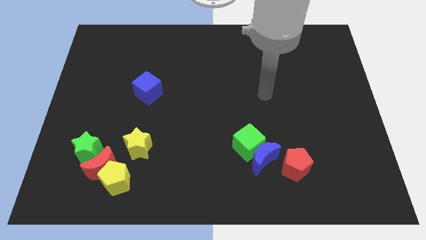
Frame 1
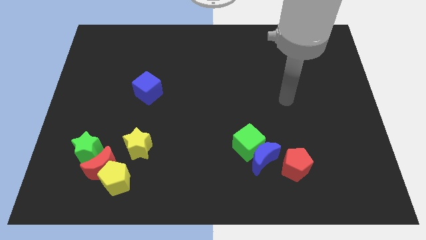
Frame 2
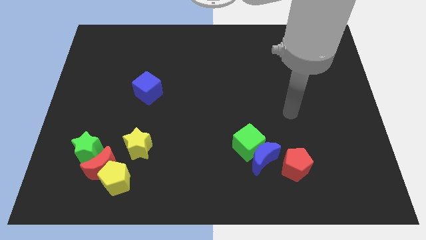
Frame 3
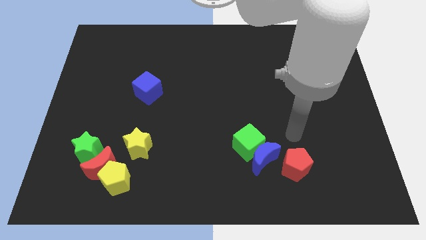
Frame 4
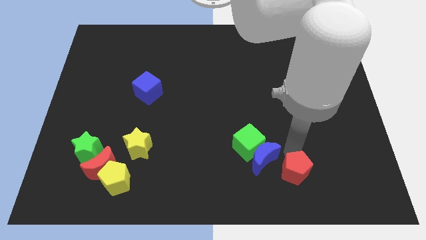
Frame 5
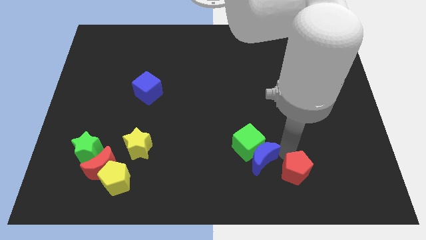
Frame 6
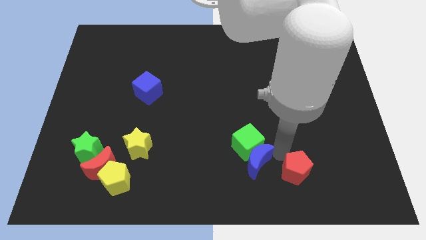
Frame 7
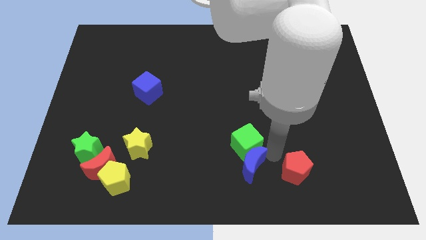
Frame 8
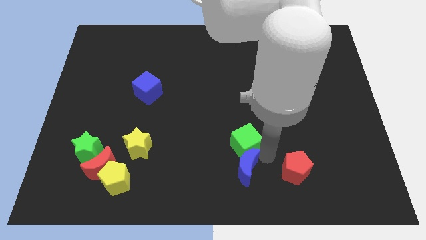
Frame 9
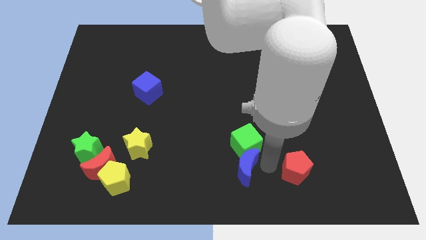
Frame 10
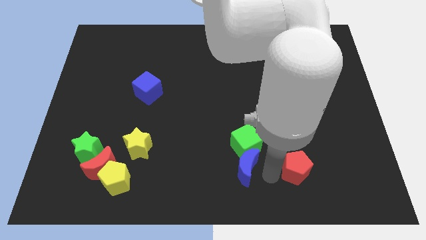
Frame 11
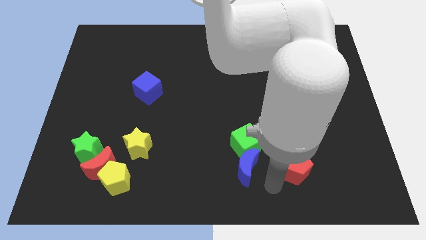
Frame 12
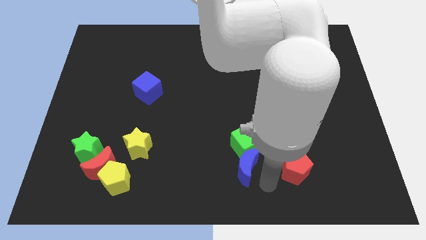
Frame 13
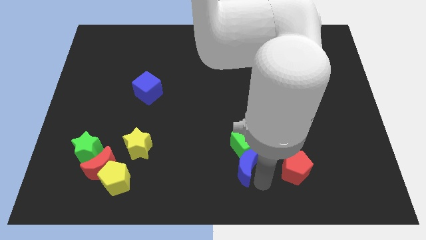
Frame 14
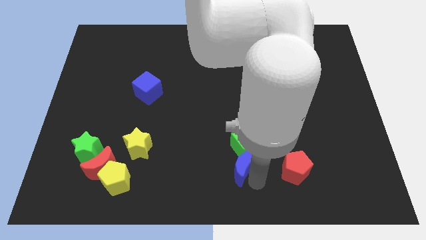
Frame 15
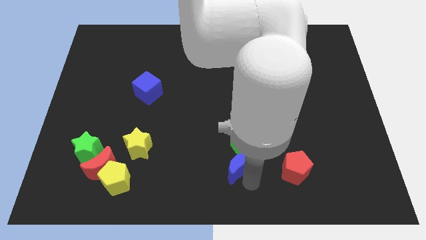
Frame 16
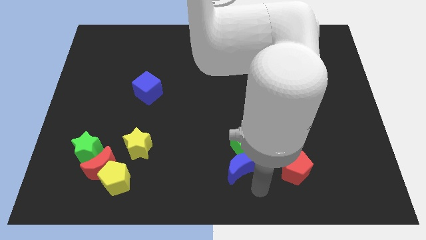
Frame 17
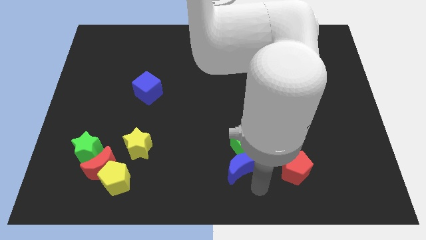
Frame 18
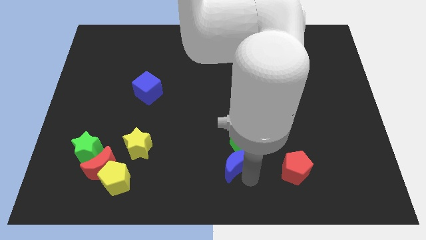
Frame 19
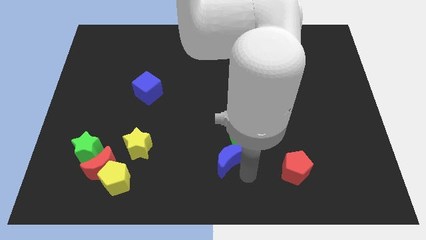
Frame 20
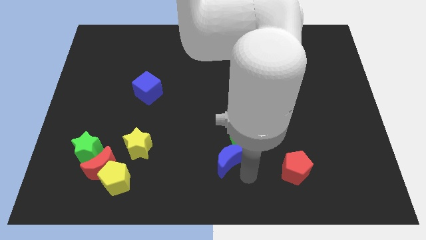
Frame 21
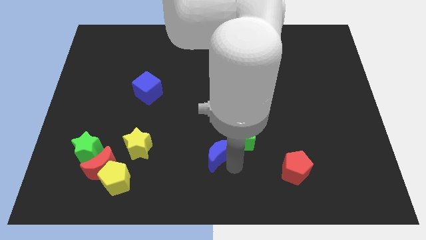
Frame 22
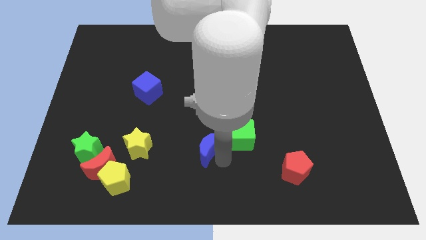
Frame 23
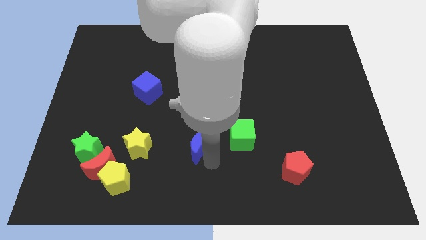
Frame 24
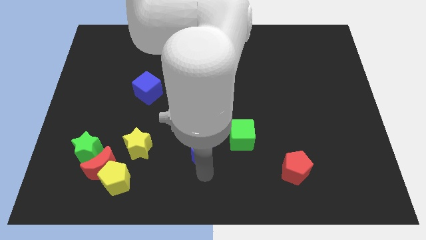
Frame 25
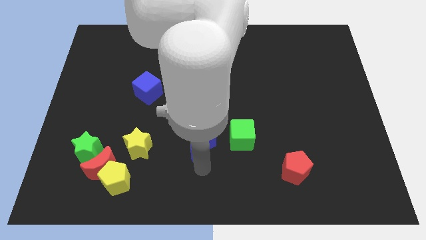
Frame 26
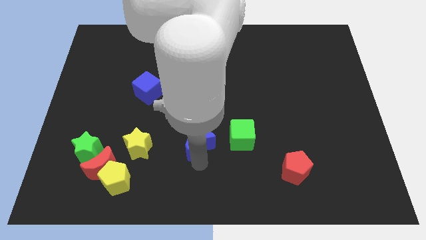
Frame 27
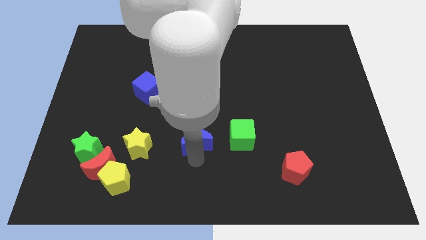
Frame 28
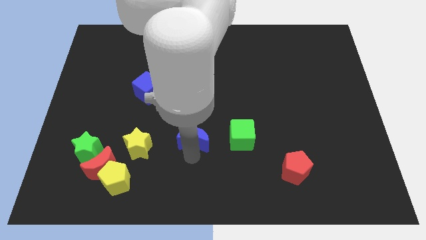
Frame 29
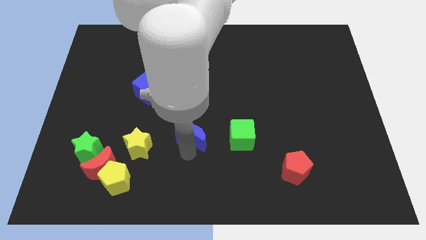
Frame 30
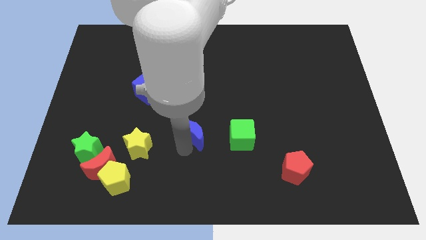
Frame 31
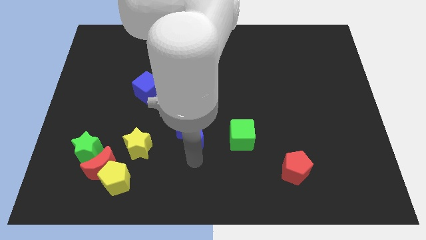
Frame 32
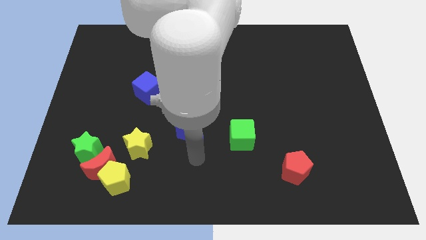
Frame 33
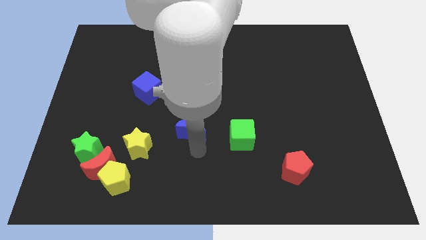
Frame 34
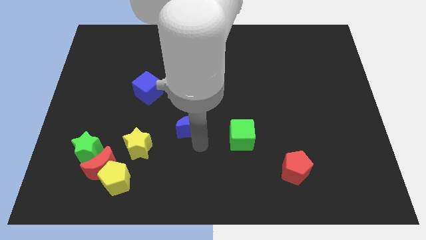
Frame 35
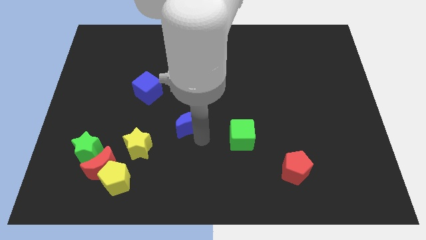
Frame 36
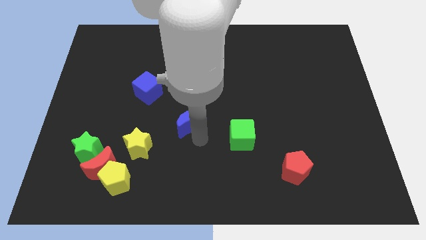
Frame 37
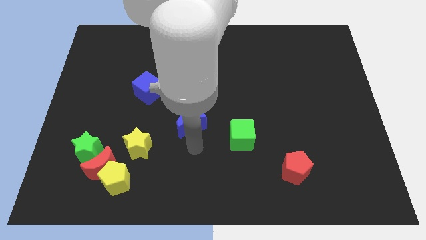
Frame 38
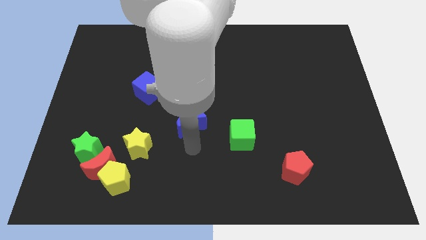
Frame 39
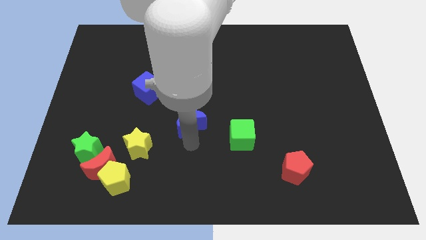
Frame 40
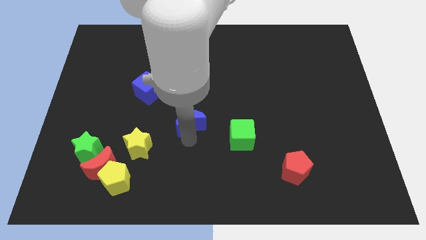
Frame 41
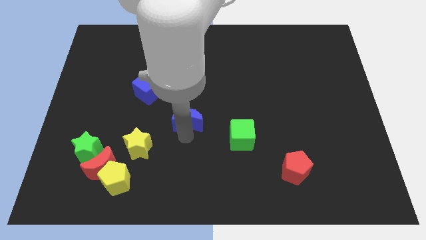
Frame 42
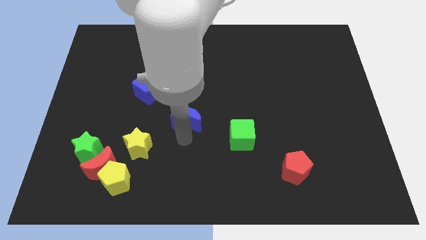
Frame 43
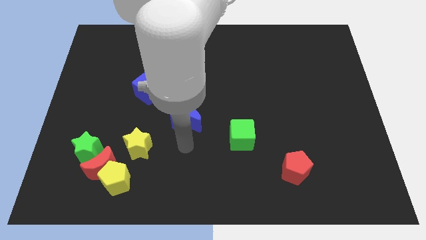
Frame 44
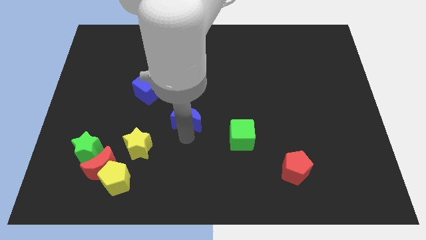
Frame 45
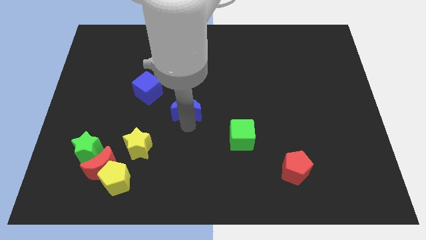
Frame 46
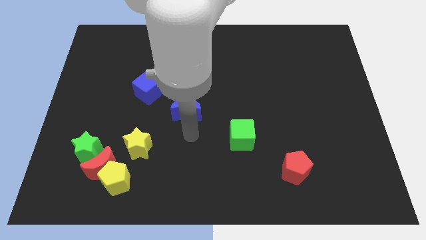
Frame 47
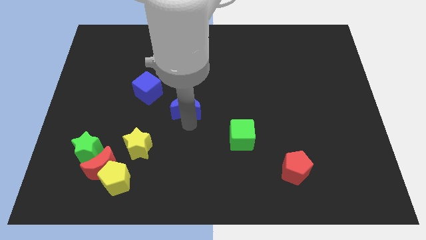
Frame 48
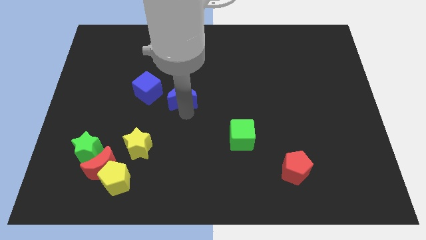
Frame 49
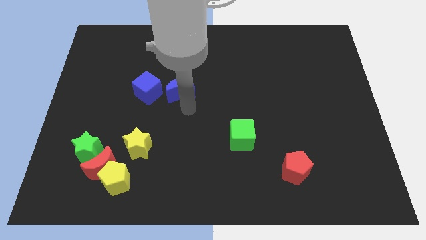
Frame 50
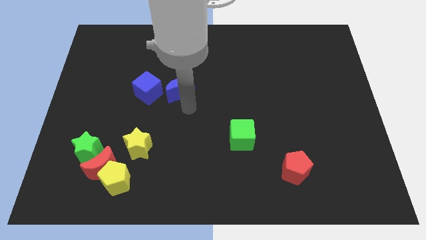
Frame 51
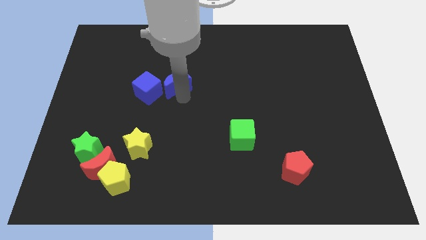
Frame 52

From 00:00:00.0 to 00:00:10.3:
push the blue moon to the top right of the blue cube

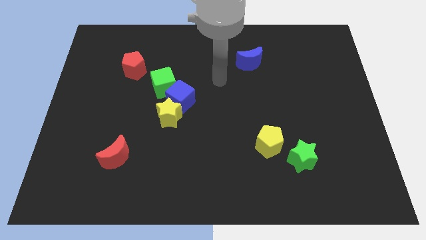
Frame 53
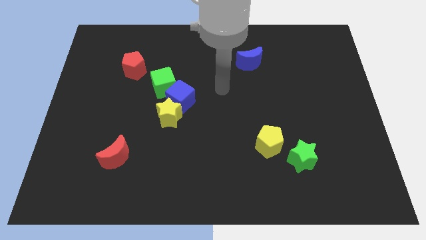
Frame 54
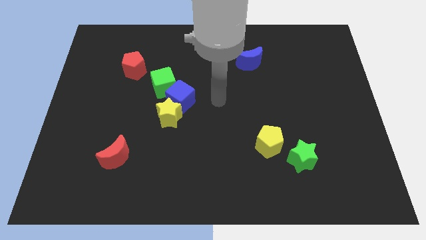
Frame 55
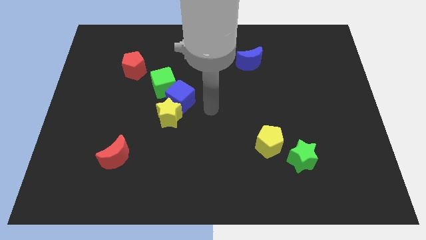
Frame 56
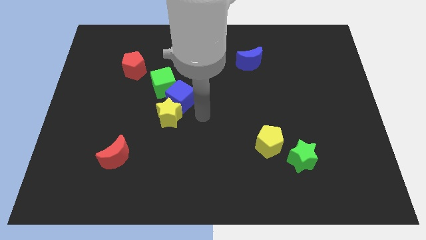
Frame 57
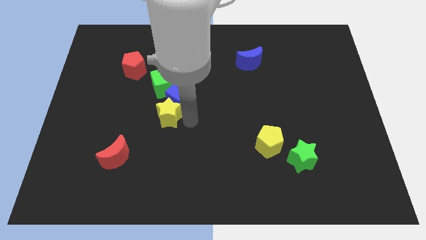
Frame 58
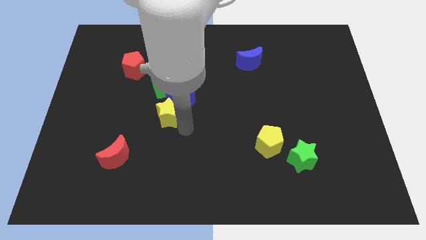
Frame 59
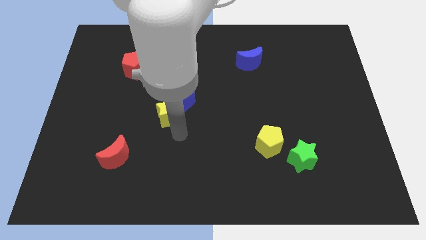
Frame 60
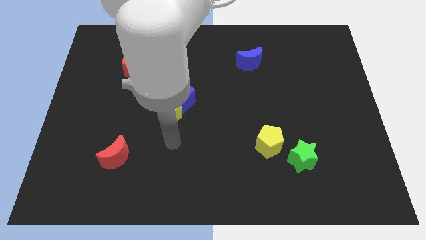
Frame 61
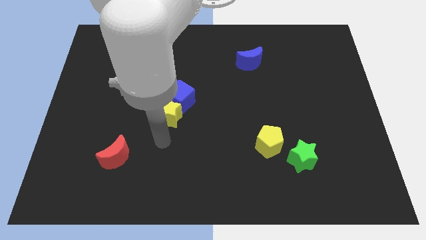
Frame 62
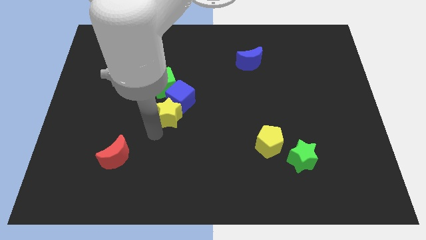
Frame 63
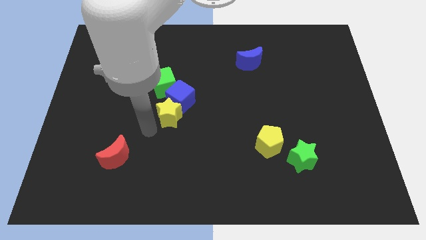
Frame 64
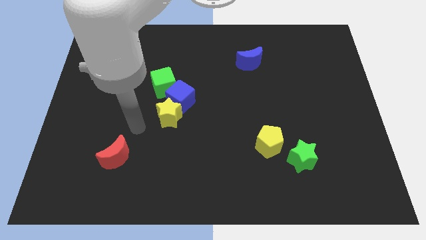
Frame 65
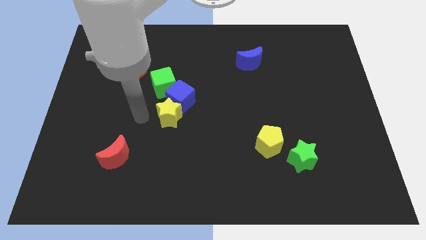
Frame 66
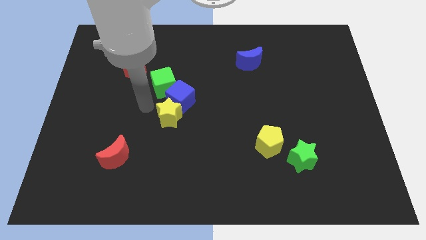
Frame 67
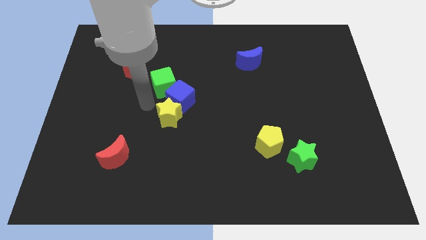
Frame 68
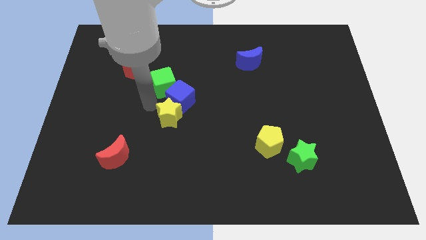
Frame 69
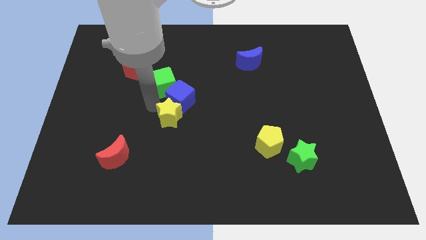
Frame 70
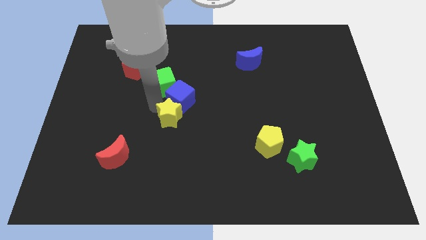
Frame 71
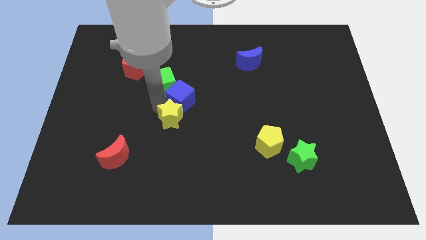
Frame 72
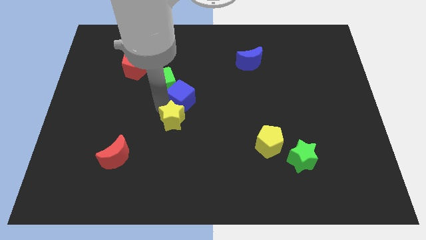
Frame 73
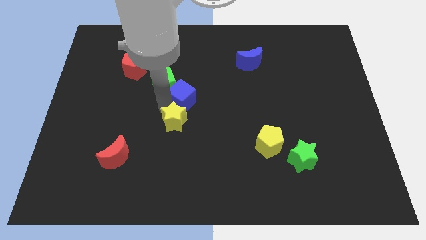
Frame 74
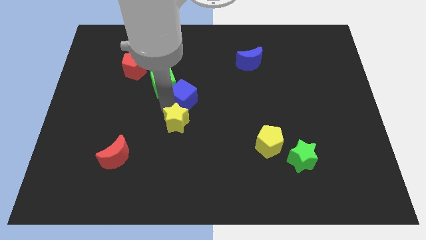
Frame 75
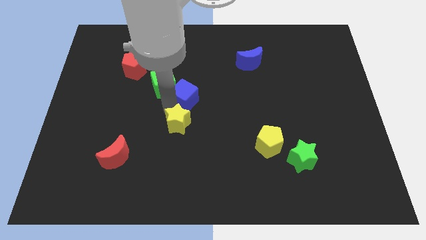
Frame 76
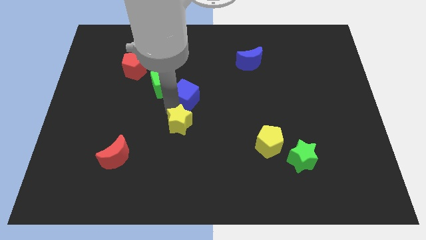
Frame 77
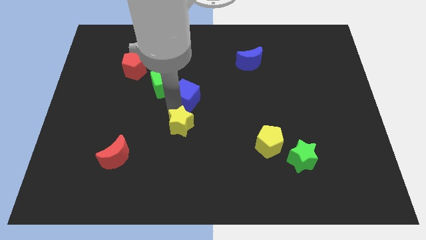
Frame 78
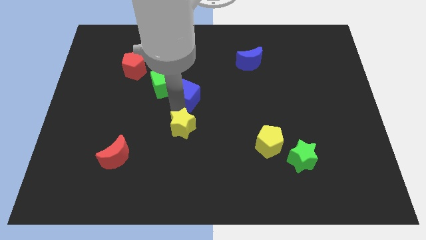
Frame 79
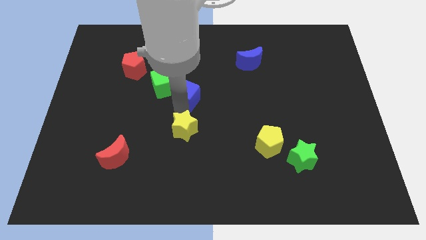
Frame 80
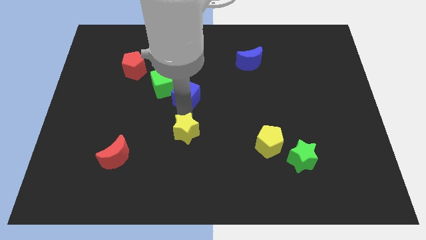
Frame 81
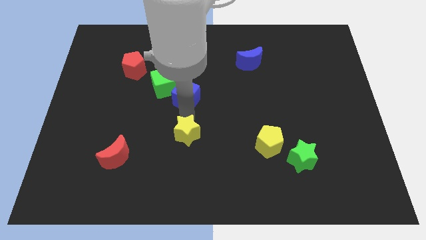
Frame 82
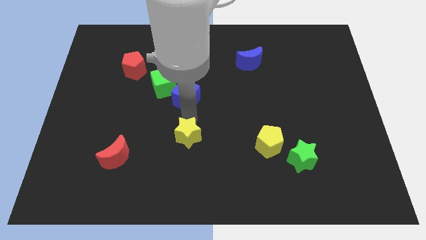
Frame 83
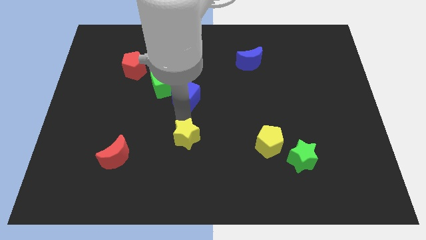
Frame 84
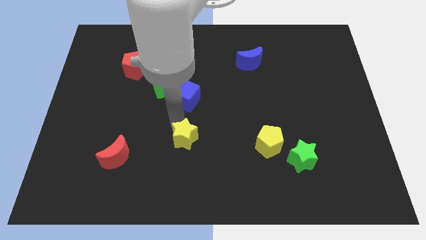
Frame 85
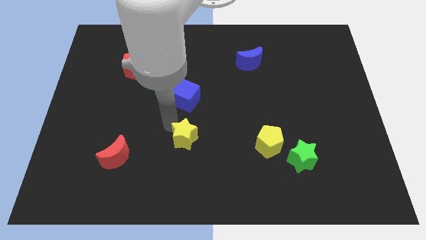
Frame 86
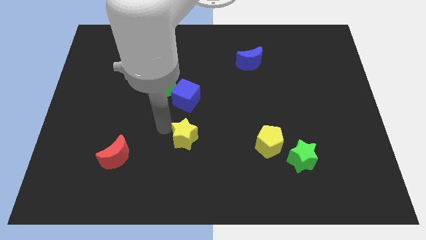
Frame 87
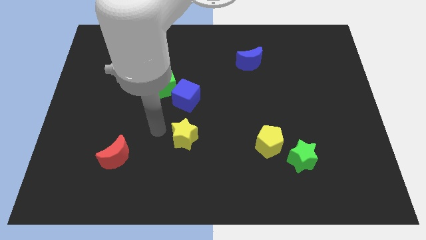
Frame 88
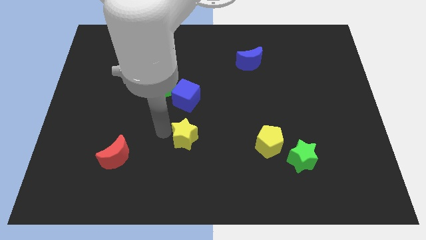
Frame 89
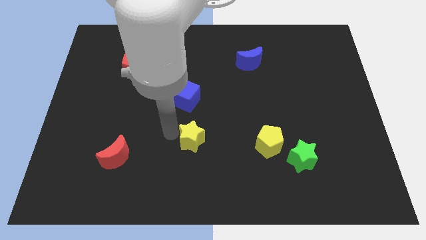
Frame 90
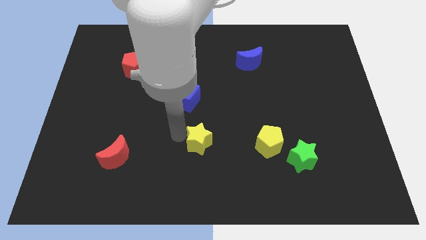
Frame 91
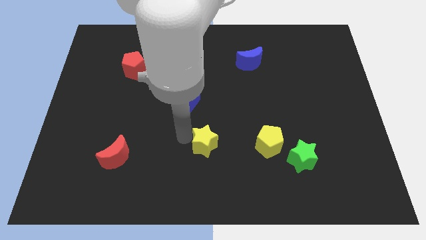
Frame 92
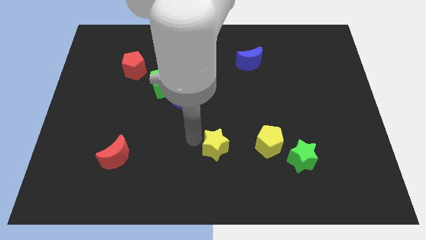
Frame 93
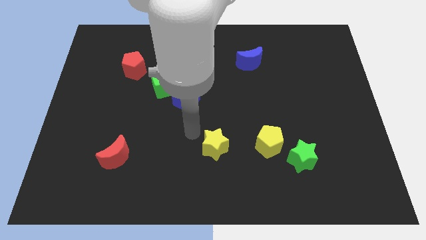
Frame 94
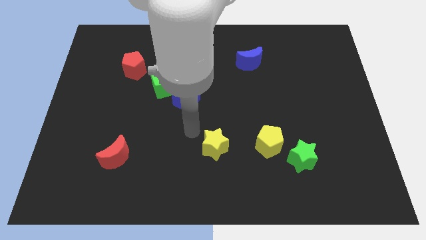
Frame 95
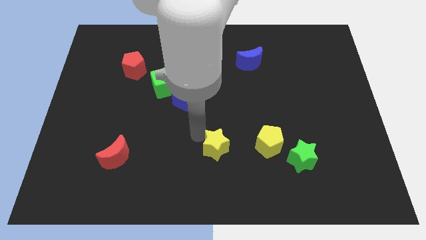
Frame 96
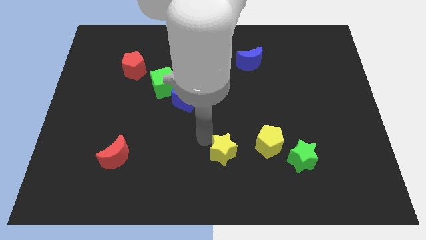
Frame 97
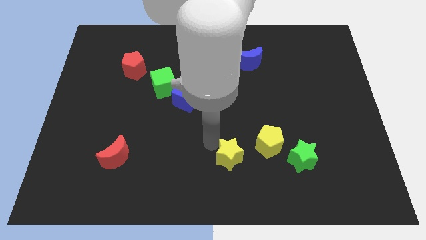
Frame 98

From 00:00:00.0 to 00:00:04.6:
slide the yellow star diagonally down and to the left of the yellow pentagon
